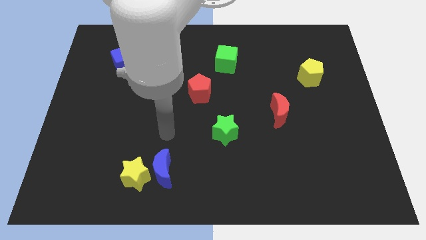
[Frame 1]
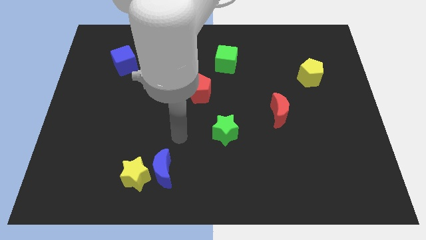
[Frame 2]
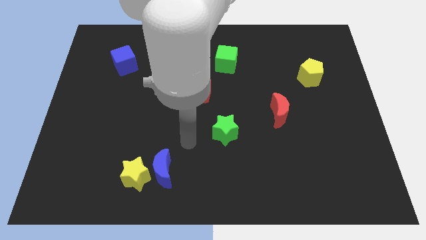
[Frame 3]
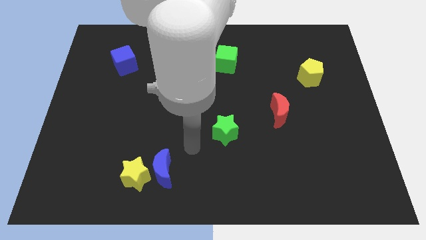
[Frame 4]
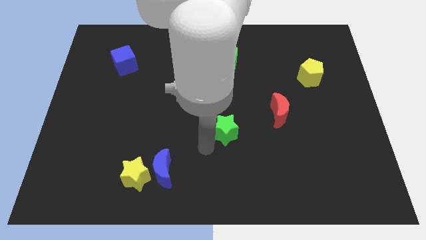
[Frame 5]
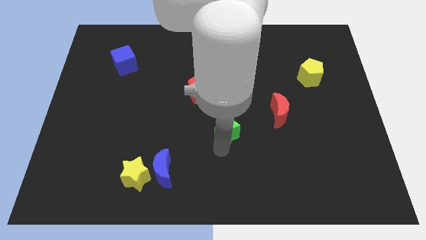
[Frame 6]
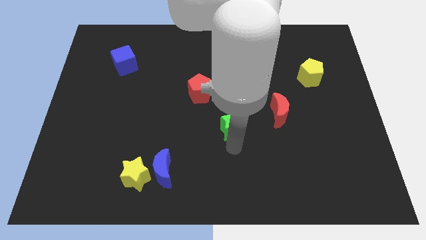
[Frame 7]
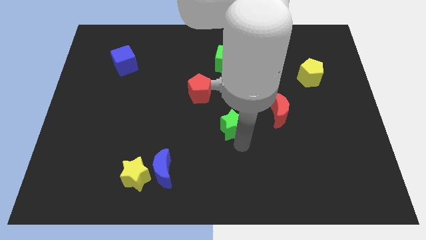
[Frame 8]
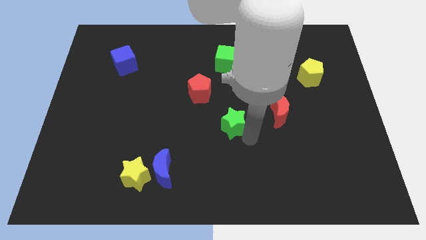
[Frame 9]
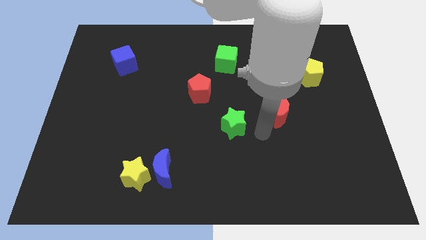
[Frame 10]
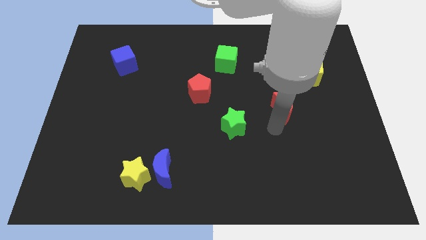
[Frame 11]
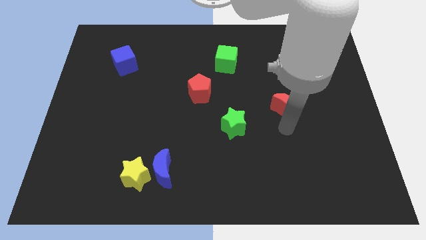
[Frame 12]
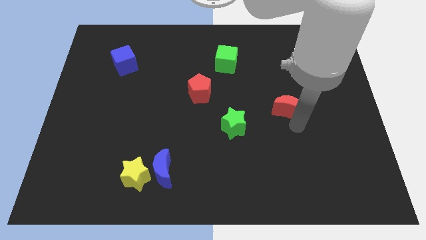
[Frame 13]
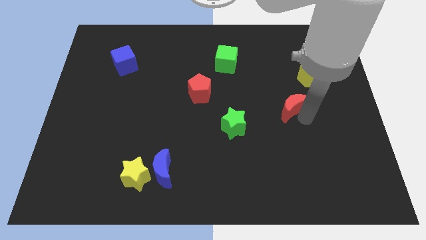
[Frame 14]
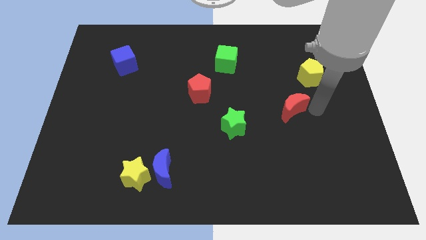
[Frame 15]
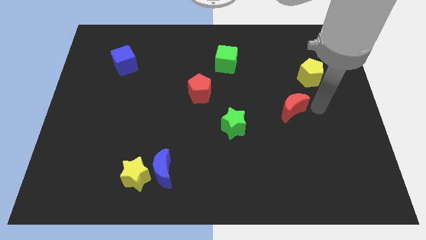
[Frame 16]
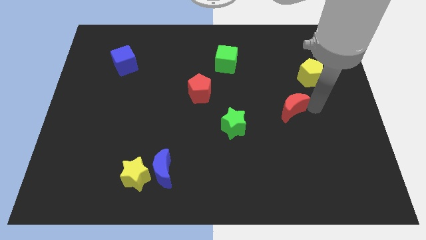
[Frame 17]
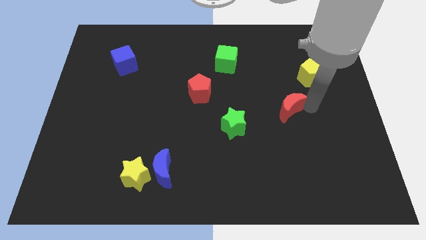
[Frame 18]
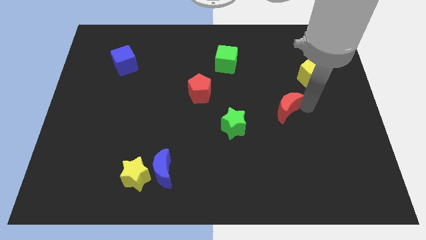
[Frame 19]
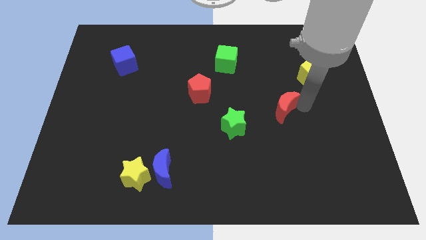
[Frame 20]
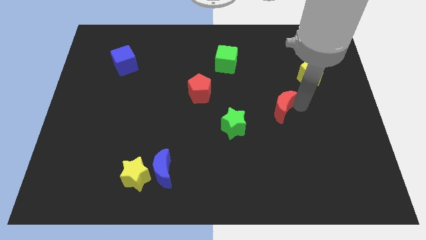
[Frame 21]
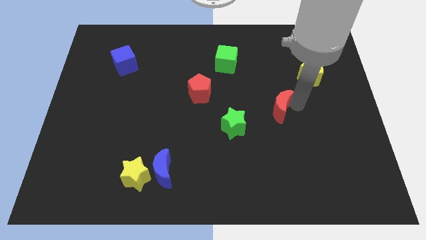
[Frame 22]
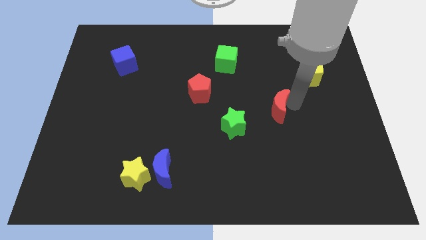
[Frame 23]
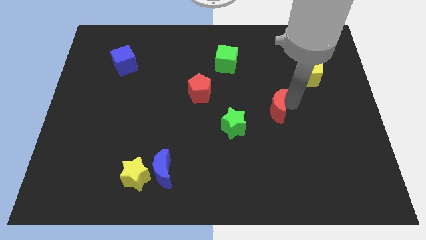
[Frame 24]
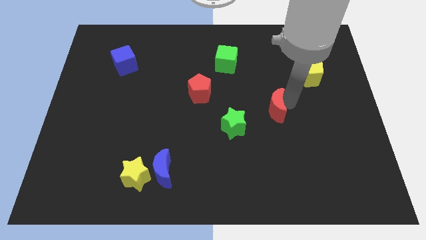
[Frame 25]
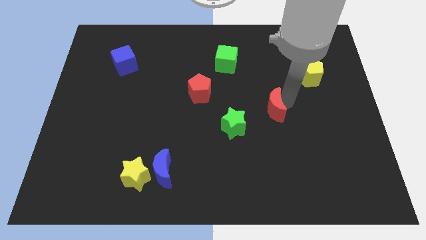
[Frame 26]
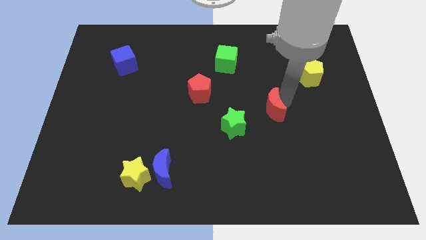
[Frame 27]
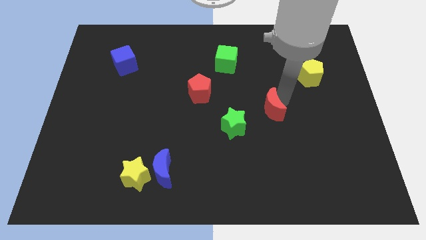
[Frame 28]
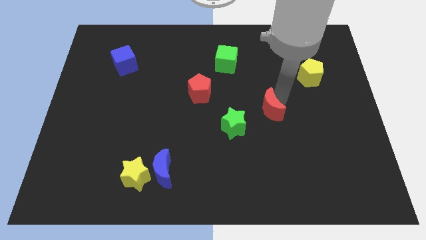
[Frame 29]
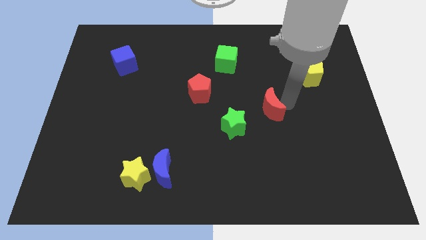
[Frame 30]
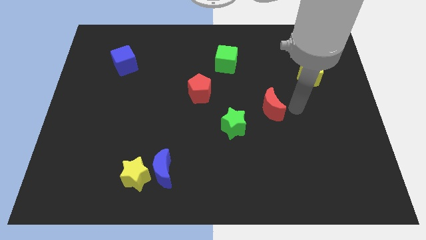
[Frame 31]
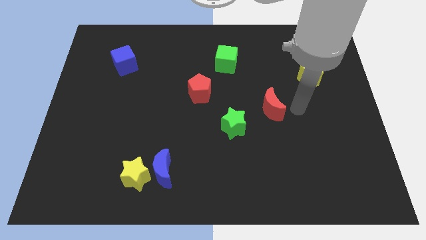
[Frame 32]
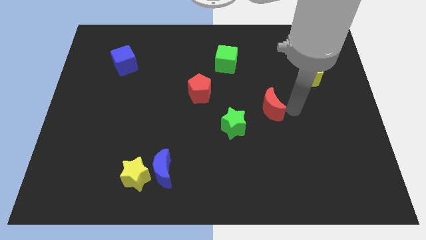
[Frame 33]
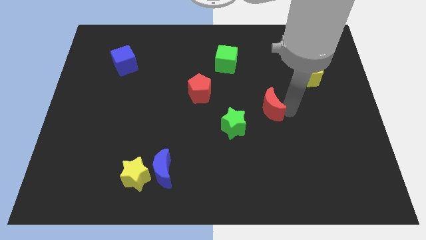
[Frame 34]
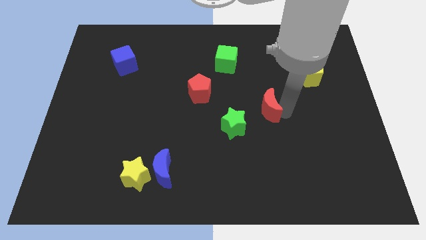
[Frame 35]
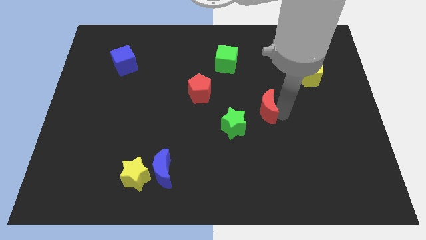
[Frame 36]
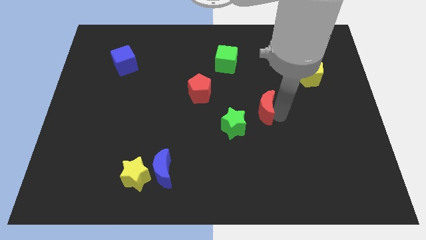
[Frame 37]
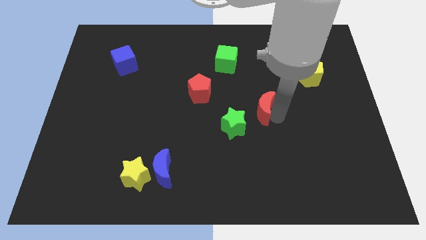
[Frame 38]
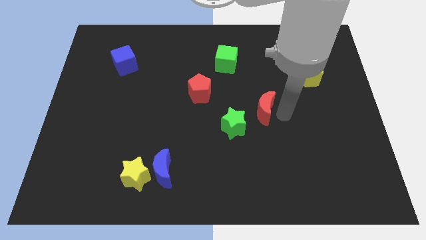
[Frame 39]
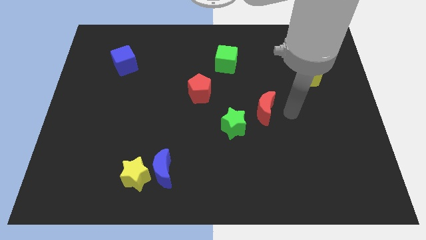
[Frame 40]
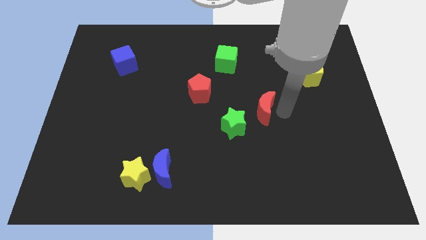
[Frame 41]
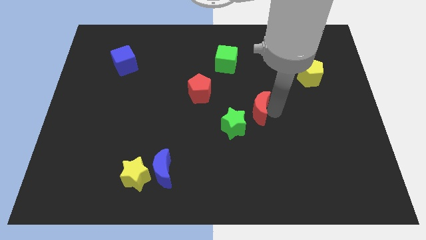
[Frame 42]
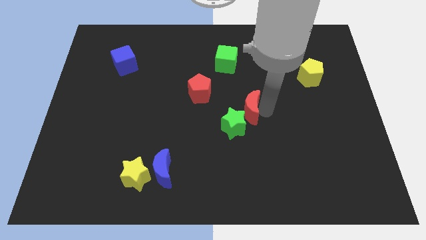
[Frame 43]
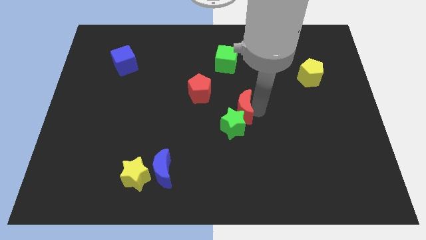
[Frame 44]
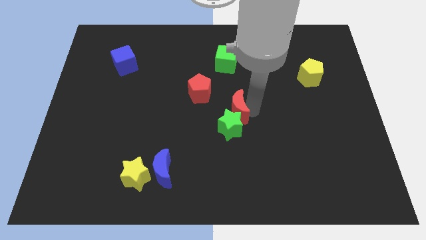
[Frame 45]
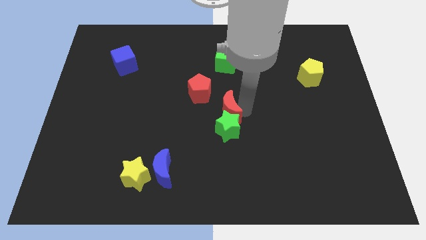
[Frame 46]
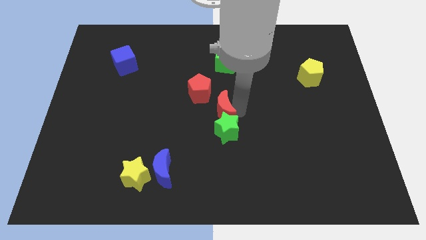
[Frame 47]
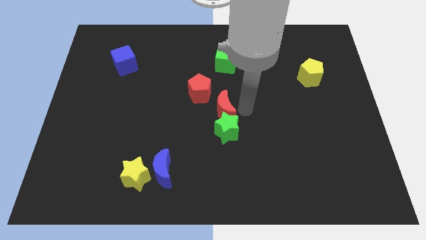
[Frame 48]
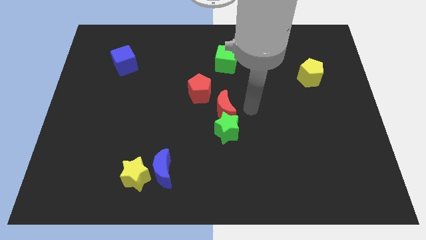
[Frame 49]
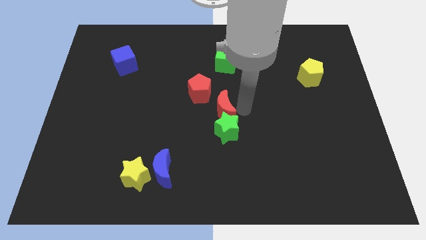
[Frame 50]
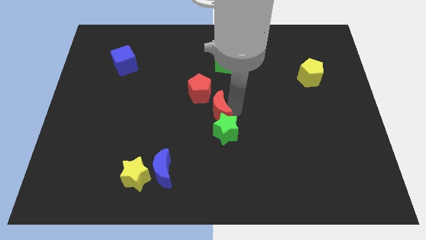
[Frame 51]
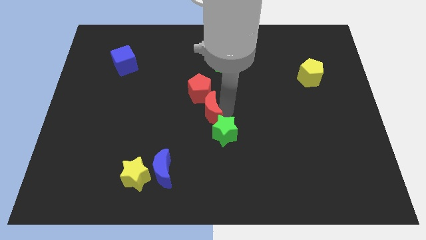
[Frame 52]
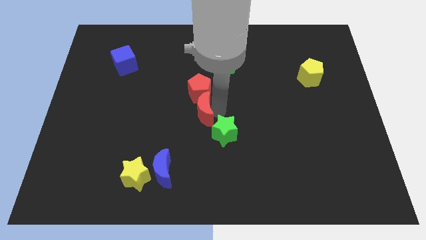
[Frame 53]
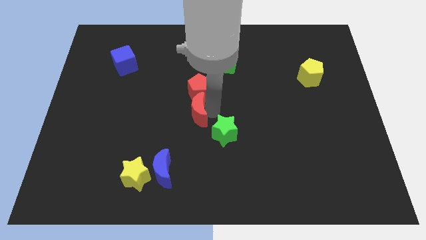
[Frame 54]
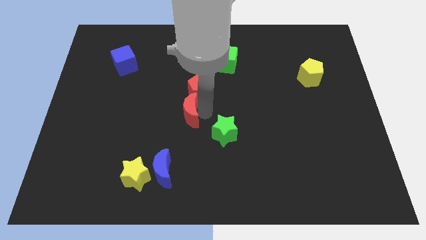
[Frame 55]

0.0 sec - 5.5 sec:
slide the red moon to the left

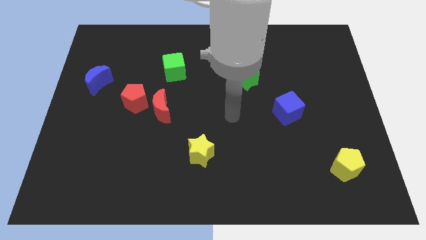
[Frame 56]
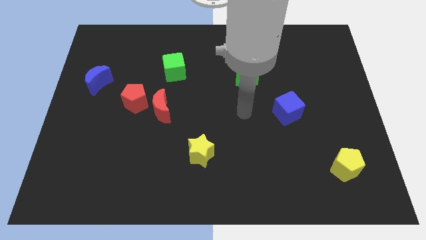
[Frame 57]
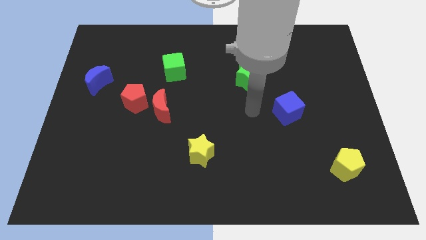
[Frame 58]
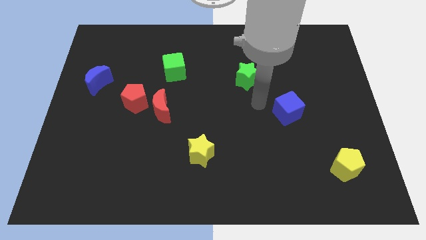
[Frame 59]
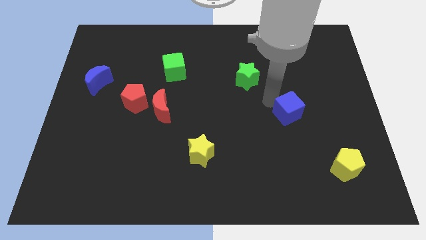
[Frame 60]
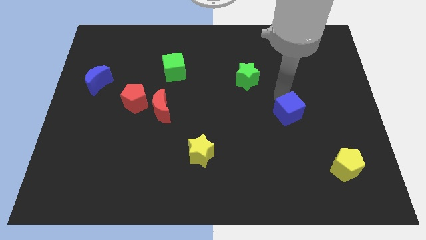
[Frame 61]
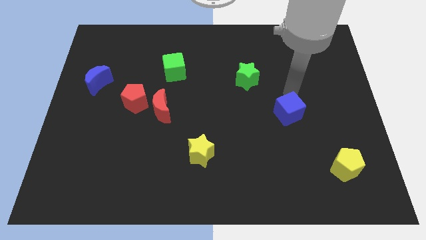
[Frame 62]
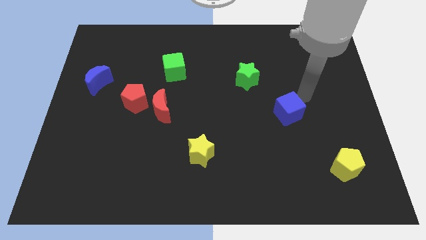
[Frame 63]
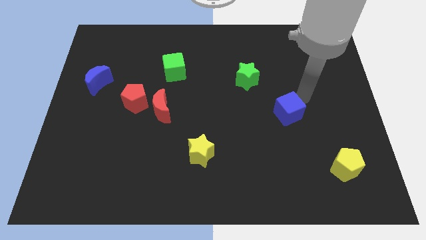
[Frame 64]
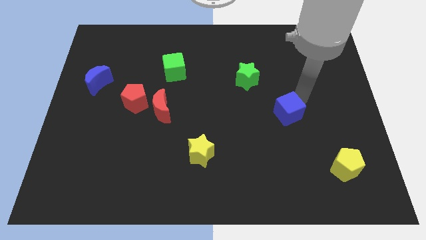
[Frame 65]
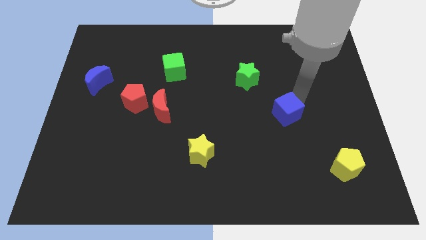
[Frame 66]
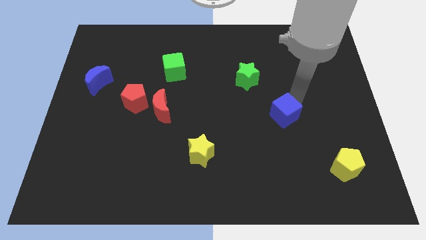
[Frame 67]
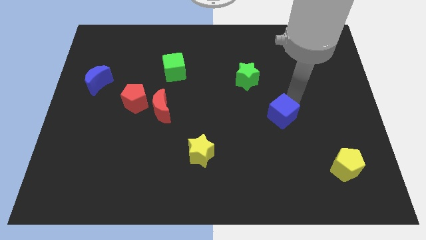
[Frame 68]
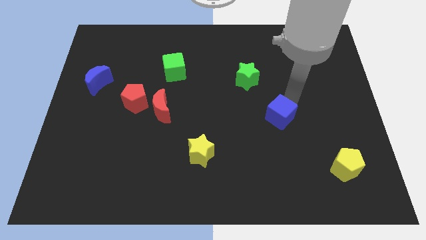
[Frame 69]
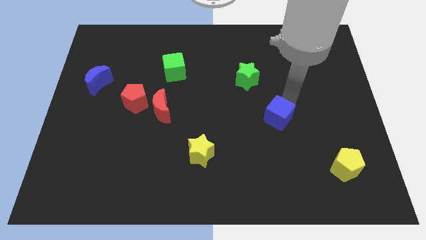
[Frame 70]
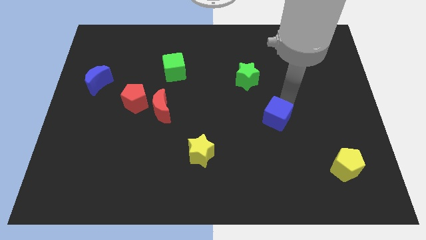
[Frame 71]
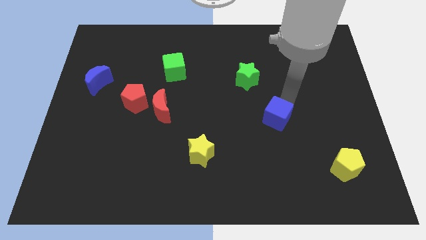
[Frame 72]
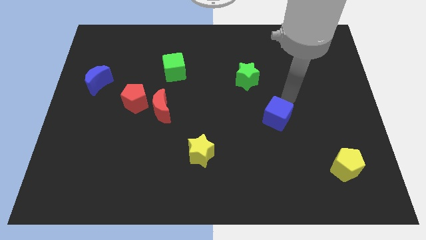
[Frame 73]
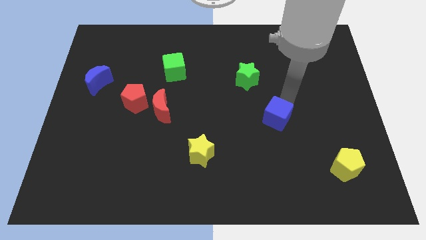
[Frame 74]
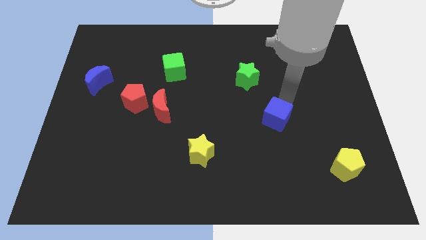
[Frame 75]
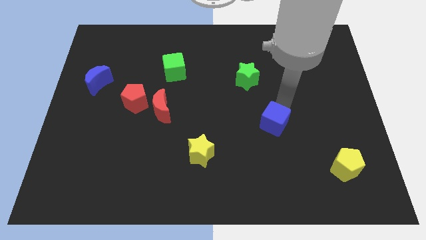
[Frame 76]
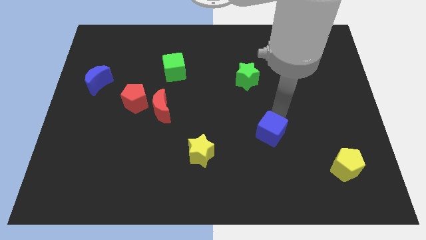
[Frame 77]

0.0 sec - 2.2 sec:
push the blue cube downwards and then to the left somewhat
